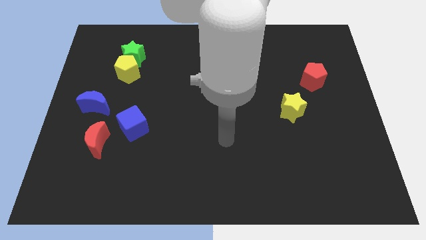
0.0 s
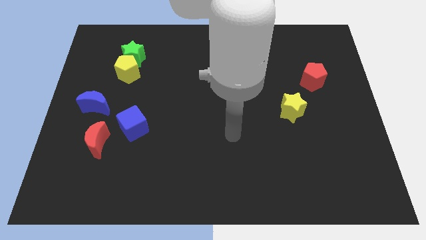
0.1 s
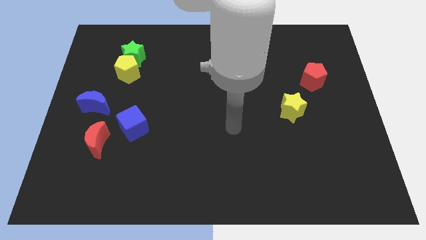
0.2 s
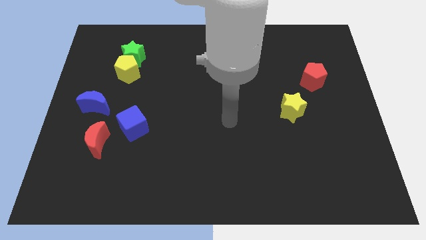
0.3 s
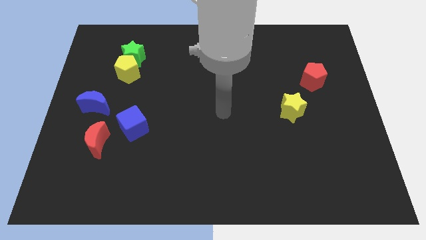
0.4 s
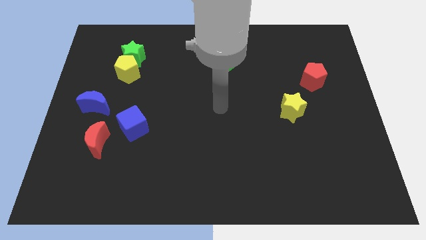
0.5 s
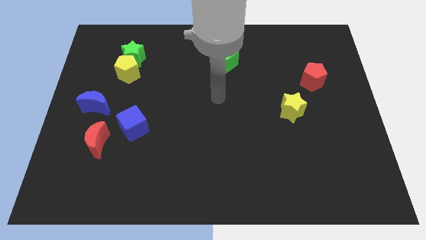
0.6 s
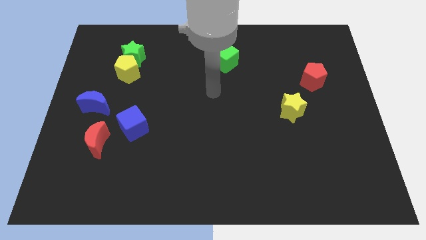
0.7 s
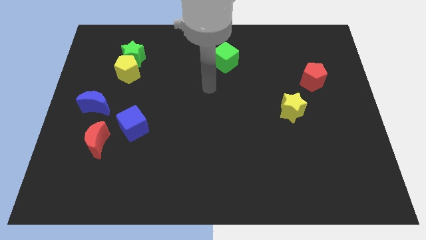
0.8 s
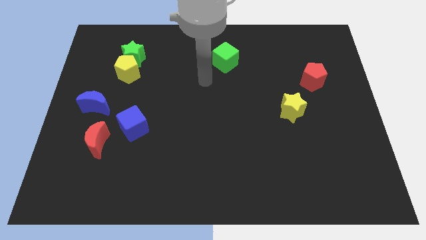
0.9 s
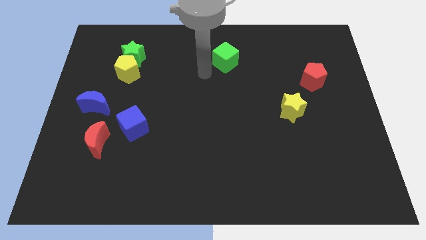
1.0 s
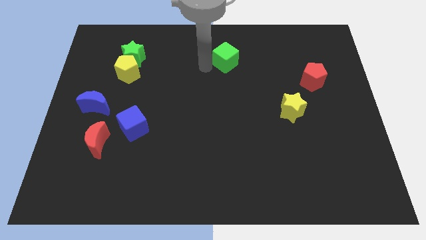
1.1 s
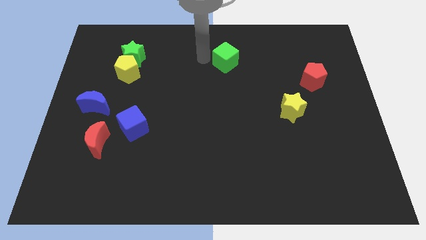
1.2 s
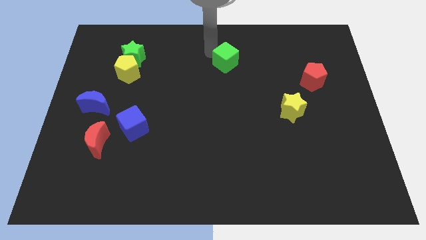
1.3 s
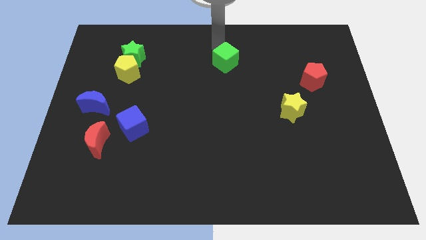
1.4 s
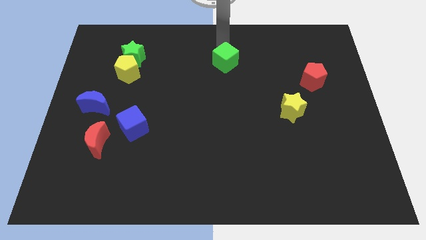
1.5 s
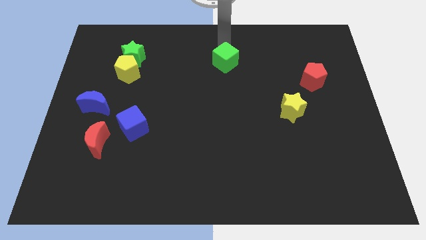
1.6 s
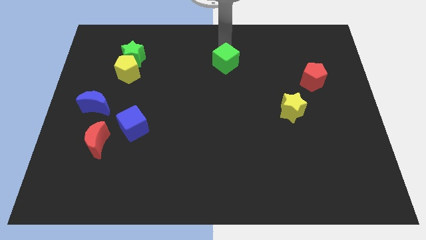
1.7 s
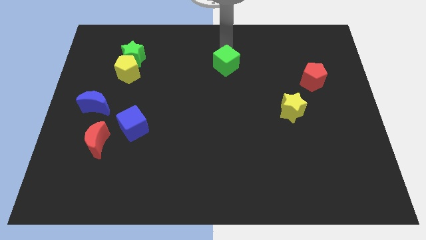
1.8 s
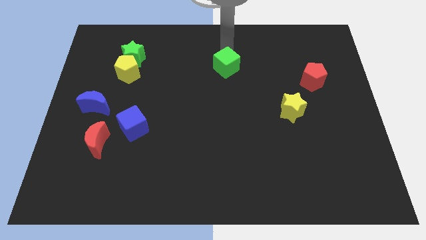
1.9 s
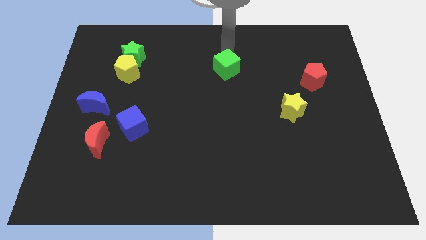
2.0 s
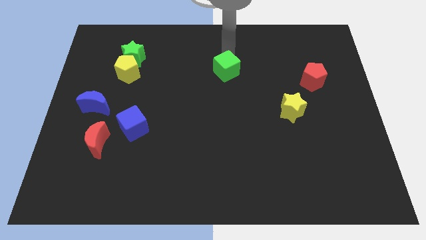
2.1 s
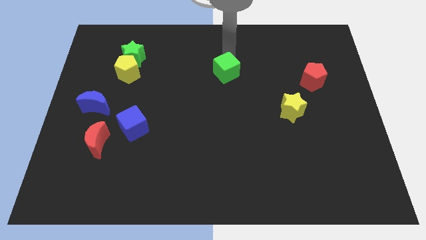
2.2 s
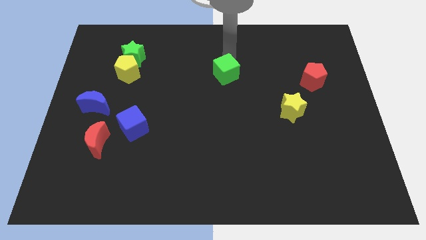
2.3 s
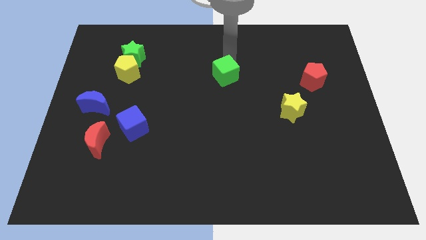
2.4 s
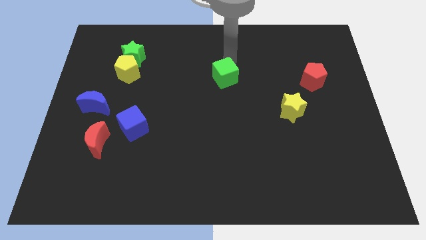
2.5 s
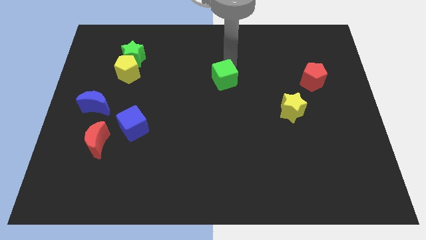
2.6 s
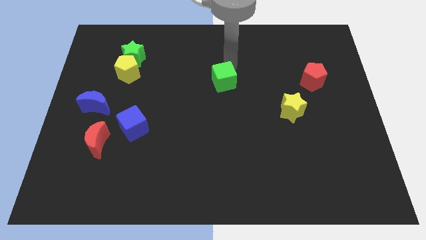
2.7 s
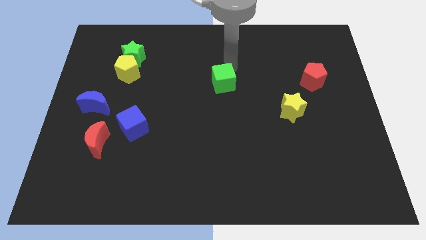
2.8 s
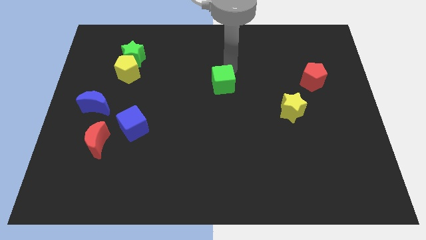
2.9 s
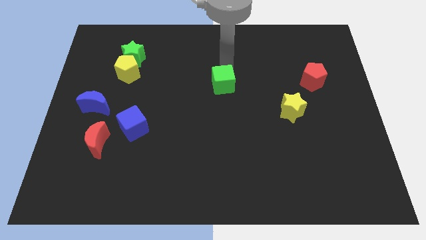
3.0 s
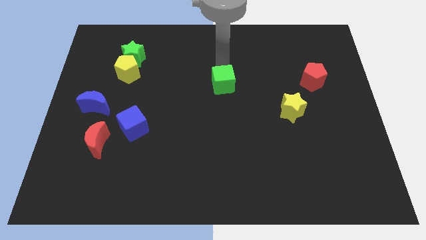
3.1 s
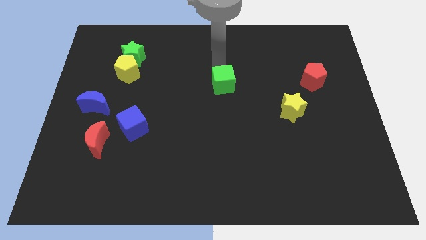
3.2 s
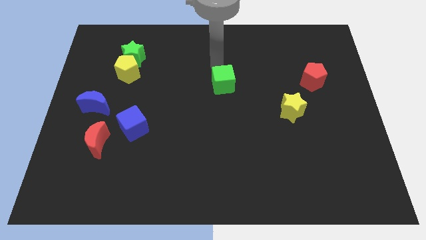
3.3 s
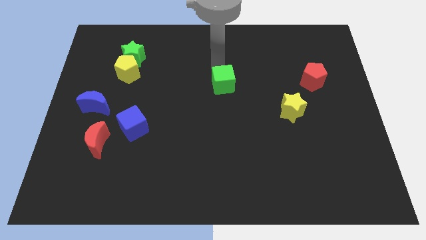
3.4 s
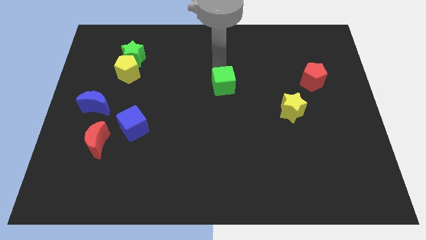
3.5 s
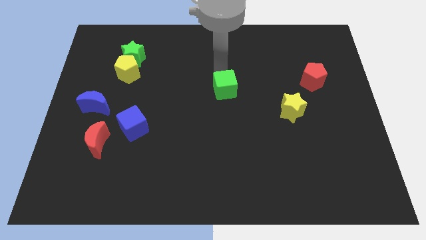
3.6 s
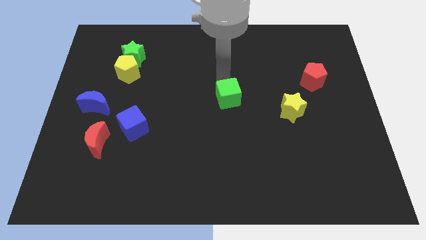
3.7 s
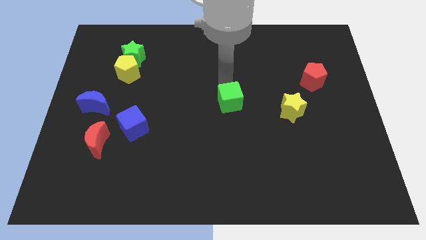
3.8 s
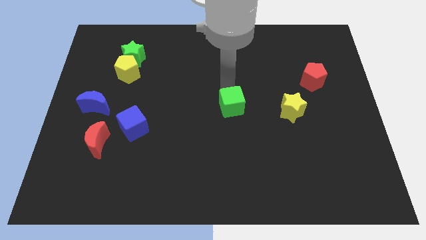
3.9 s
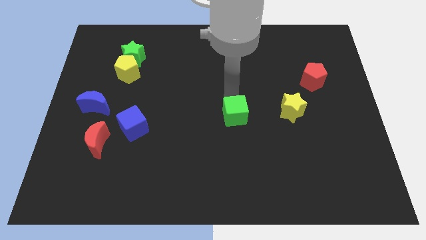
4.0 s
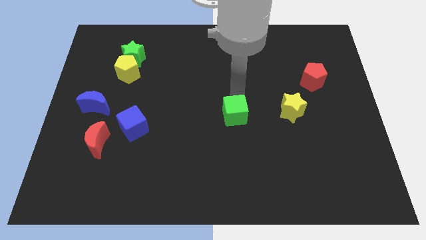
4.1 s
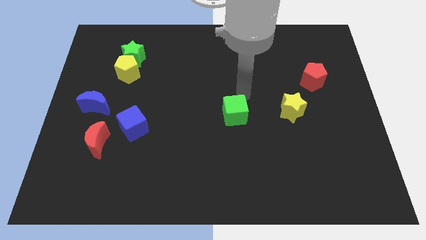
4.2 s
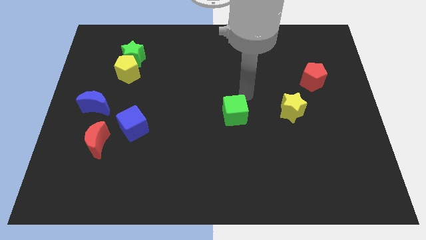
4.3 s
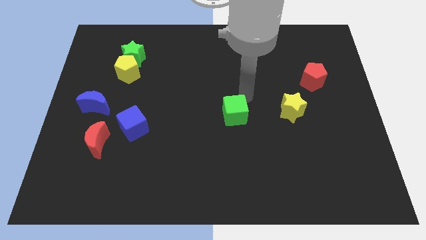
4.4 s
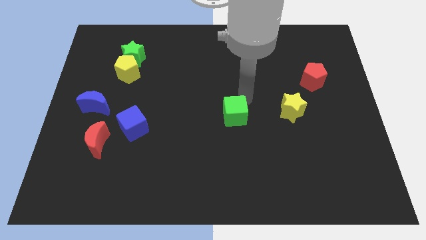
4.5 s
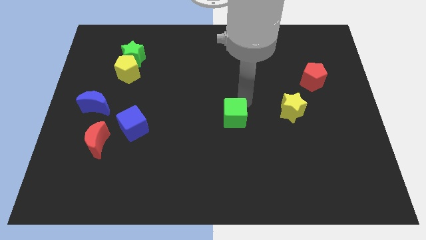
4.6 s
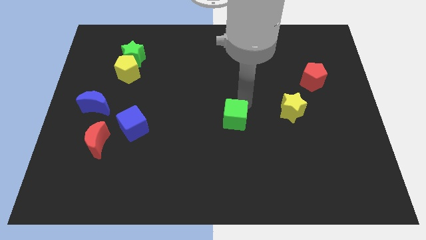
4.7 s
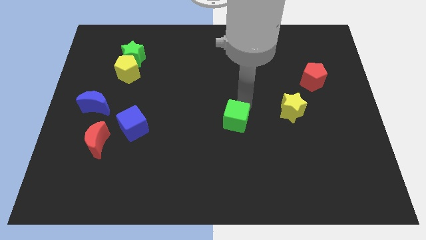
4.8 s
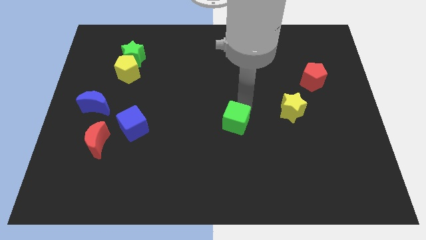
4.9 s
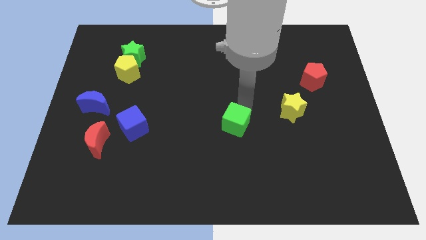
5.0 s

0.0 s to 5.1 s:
slide the green cube down

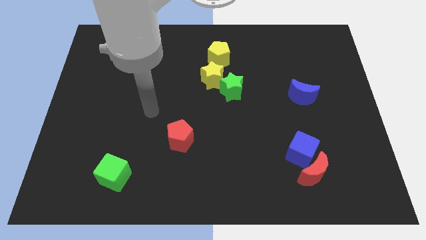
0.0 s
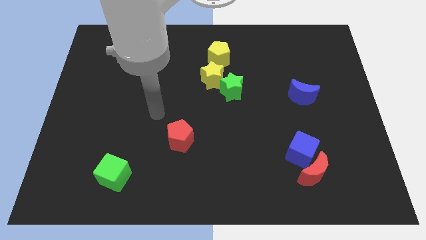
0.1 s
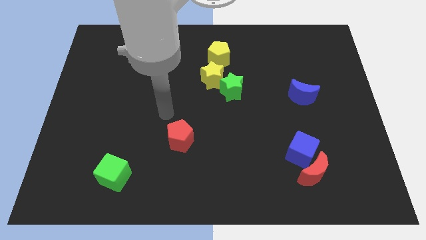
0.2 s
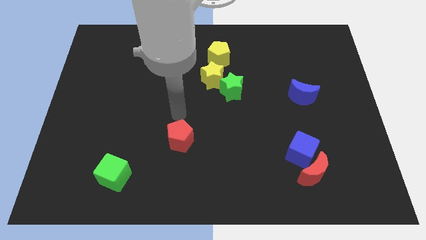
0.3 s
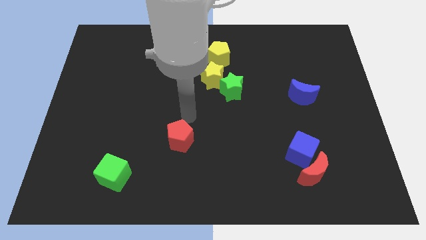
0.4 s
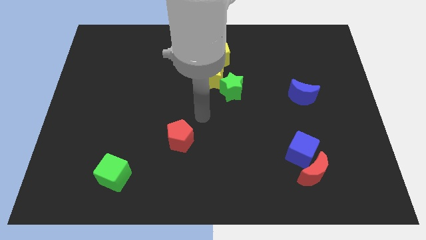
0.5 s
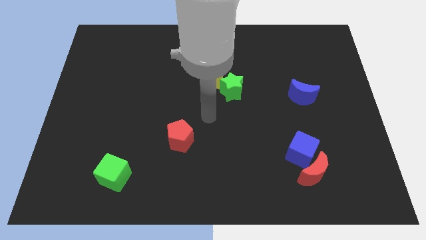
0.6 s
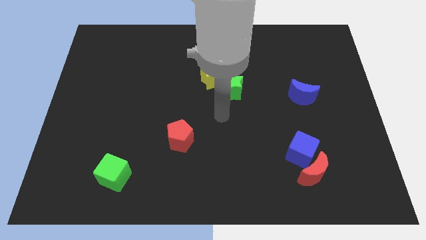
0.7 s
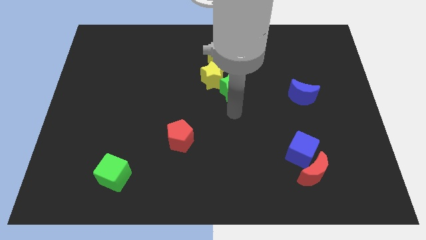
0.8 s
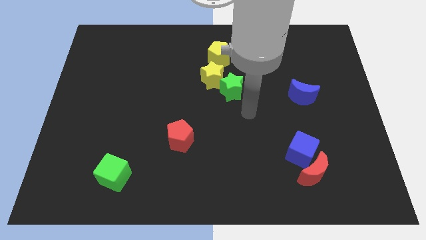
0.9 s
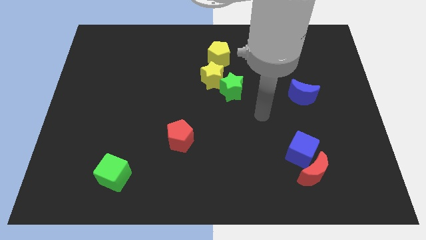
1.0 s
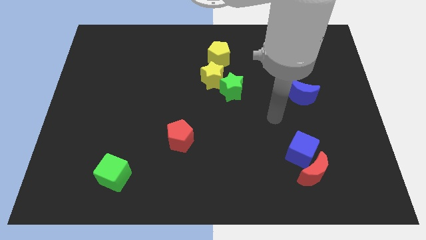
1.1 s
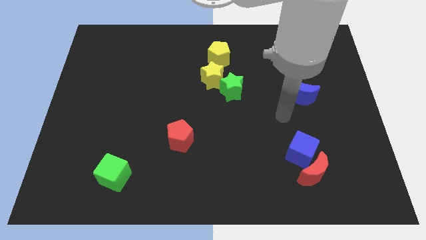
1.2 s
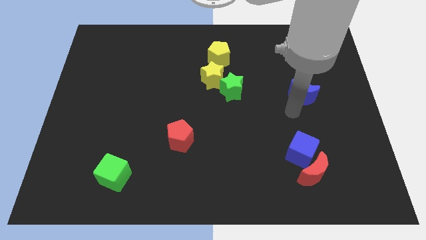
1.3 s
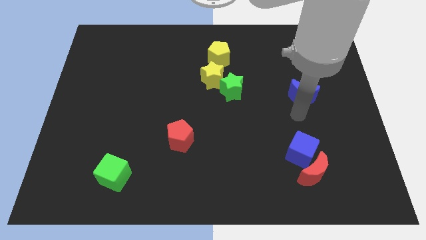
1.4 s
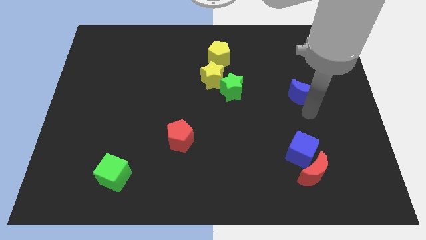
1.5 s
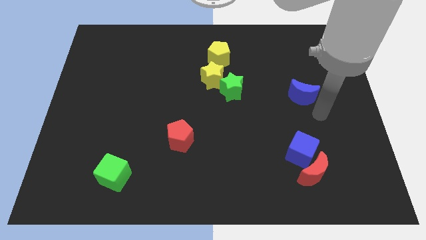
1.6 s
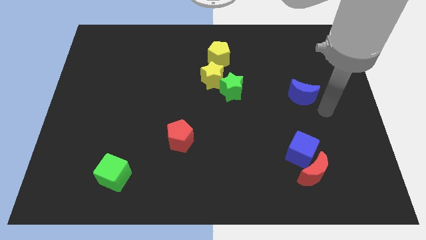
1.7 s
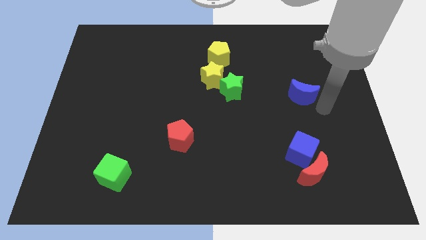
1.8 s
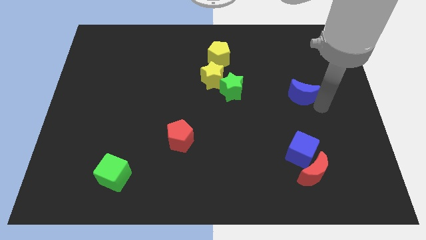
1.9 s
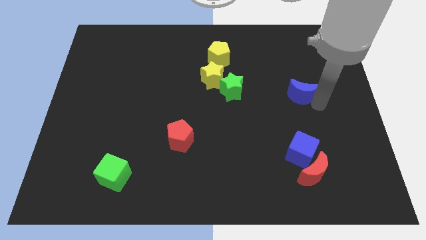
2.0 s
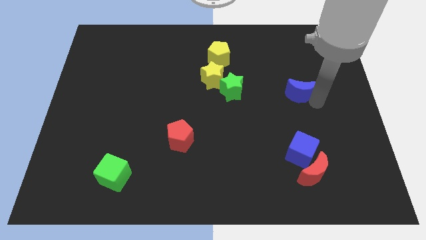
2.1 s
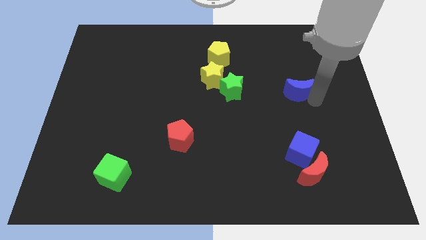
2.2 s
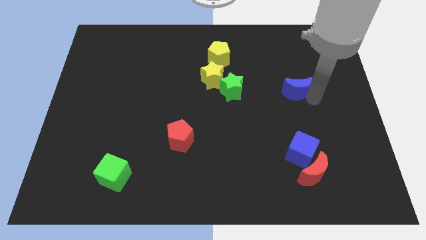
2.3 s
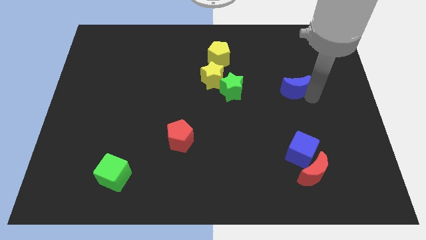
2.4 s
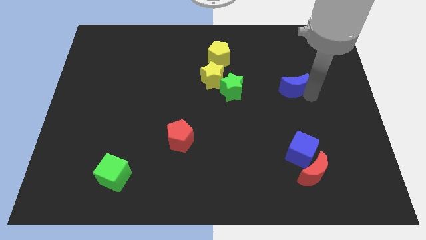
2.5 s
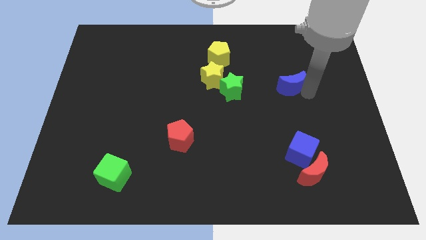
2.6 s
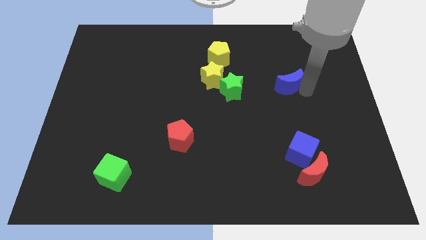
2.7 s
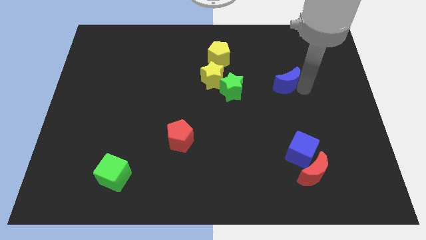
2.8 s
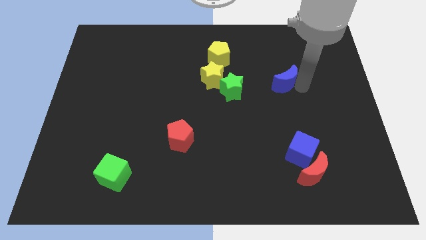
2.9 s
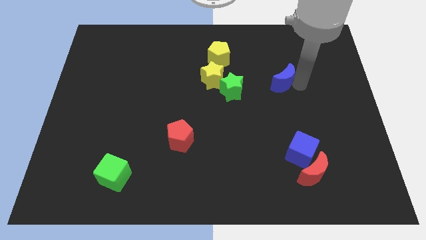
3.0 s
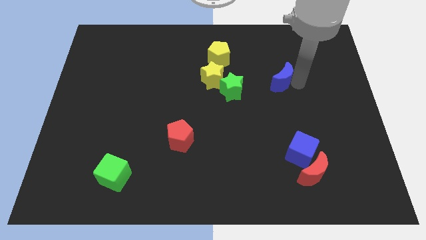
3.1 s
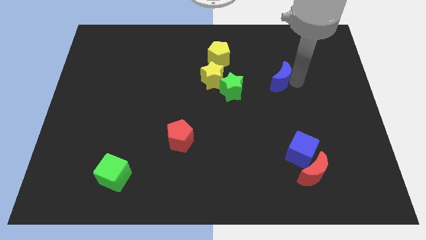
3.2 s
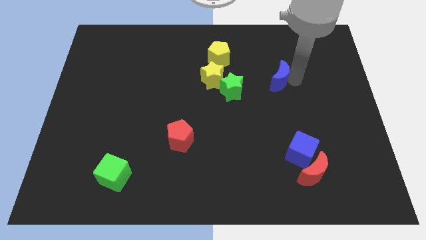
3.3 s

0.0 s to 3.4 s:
slide the blue moon upwards and to the left somewhat
